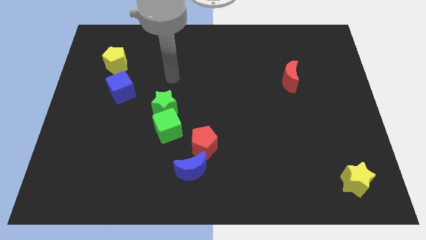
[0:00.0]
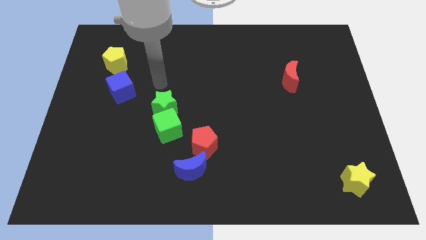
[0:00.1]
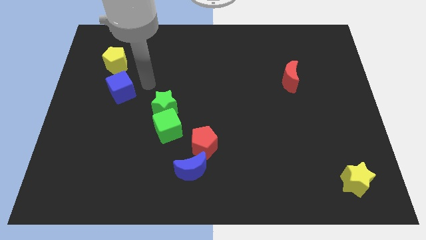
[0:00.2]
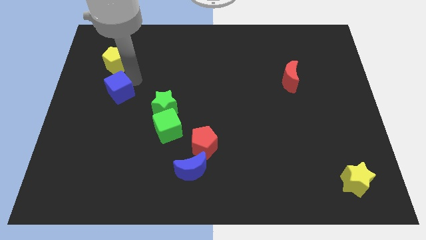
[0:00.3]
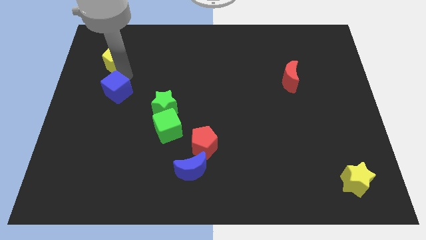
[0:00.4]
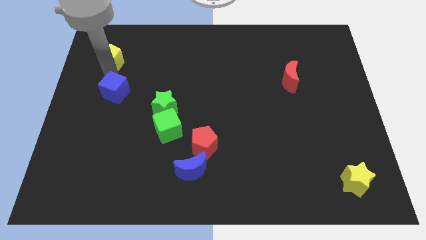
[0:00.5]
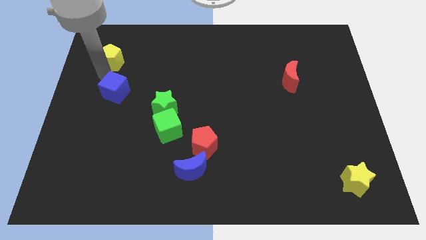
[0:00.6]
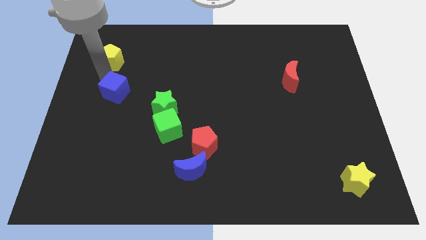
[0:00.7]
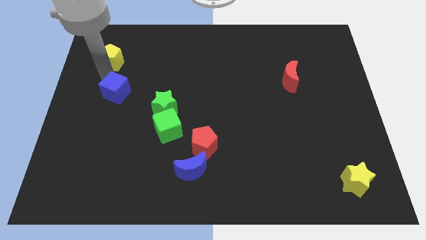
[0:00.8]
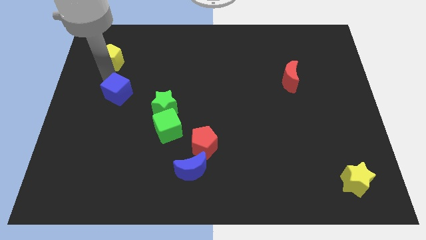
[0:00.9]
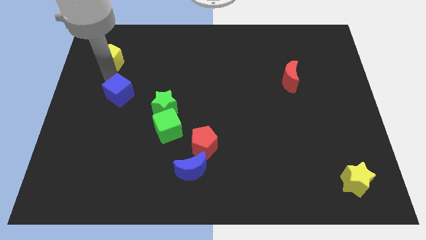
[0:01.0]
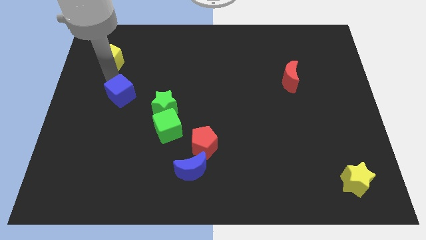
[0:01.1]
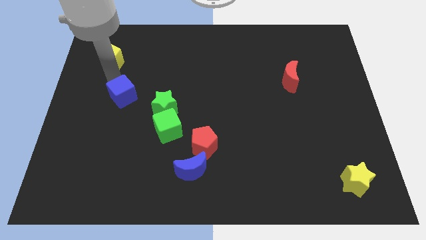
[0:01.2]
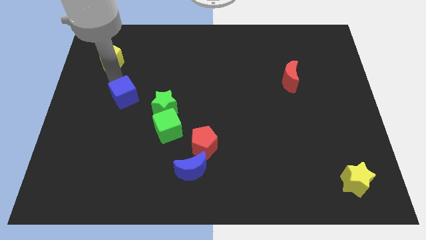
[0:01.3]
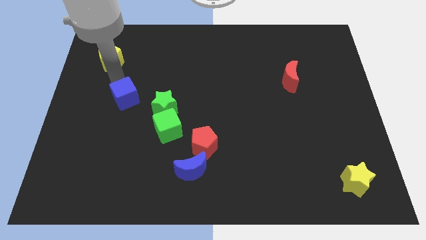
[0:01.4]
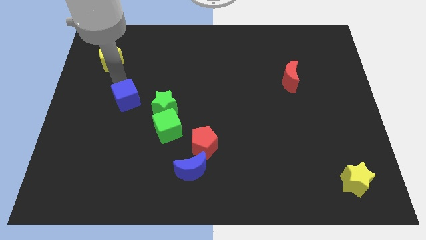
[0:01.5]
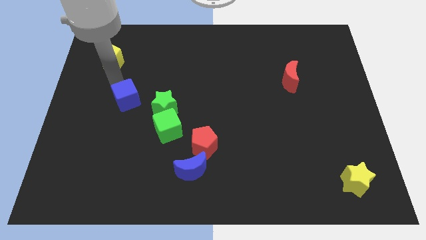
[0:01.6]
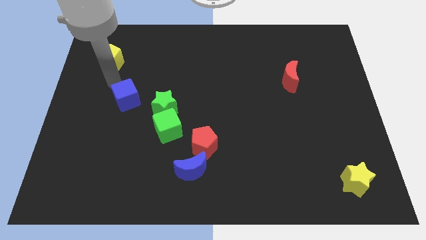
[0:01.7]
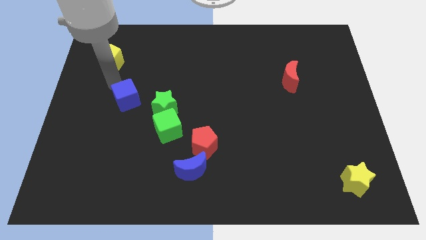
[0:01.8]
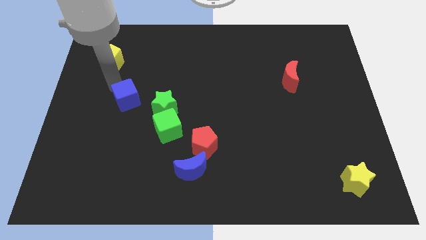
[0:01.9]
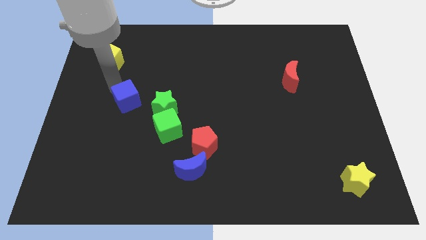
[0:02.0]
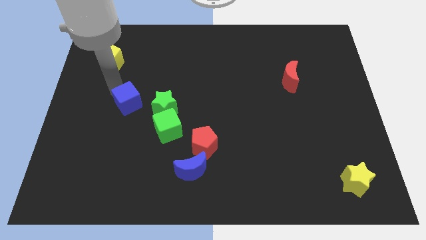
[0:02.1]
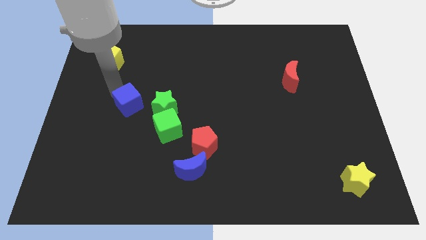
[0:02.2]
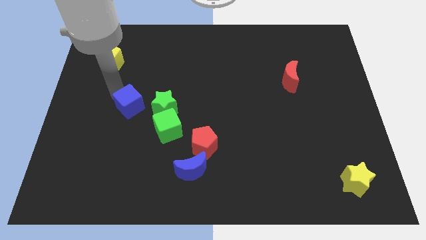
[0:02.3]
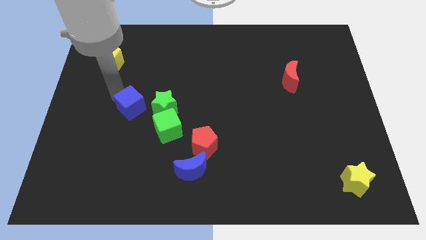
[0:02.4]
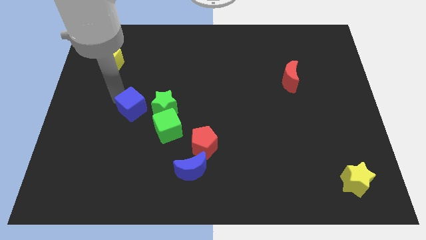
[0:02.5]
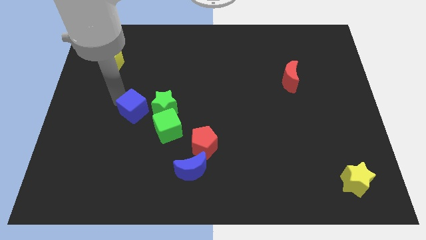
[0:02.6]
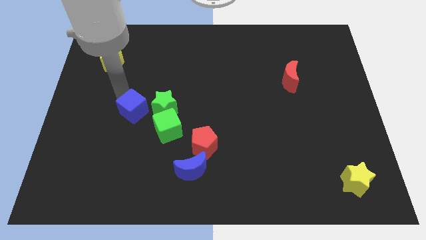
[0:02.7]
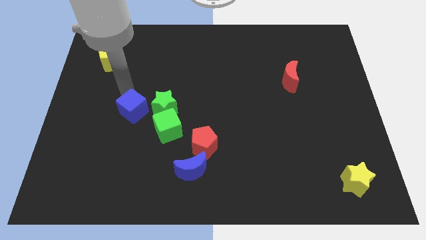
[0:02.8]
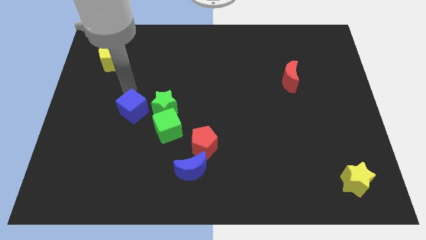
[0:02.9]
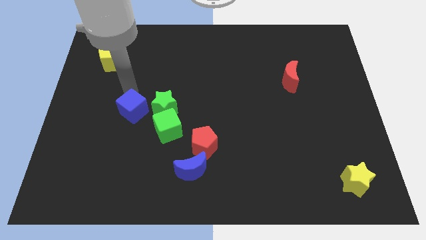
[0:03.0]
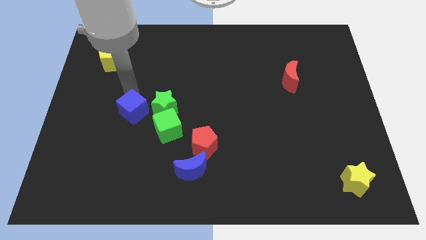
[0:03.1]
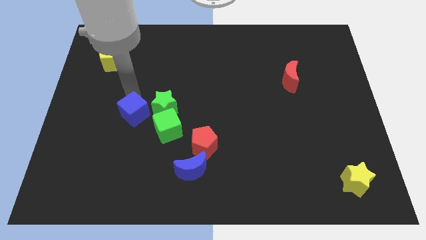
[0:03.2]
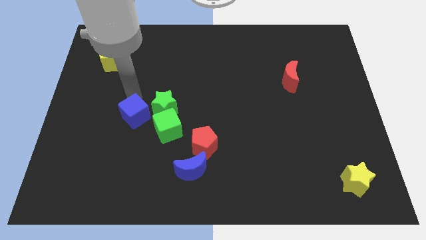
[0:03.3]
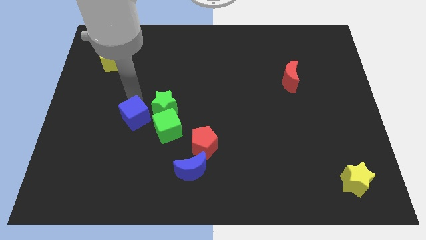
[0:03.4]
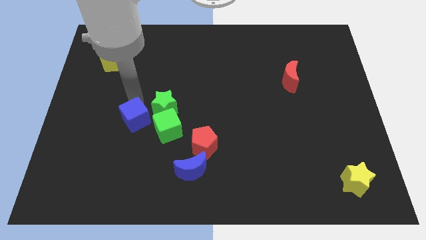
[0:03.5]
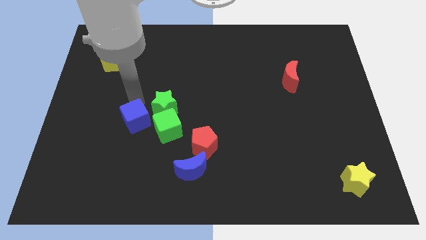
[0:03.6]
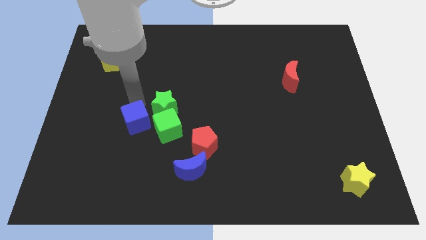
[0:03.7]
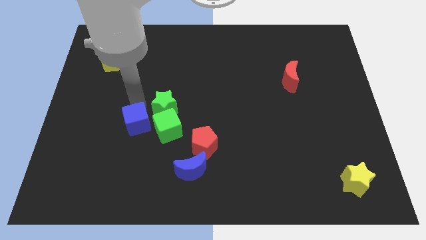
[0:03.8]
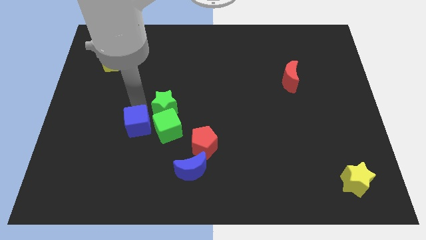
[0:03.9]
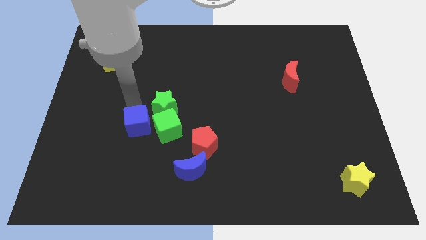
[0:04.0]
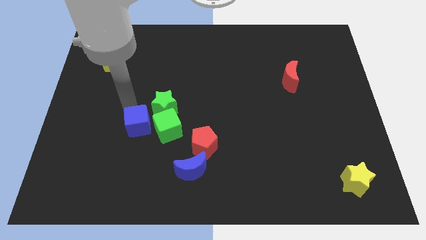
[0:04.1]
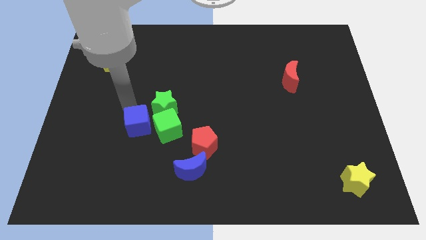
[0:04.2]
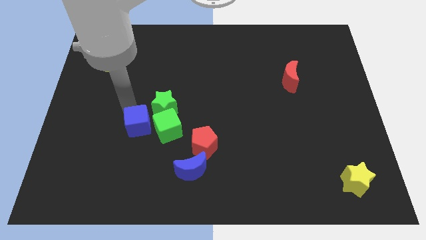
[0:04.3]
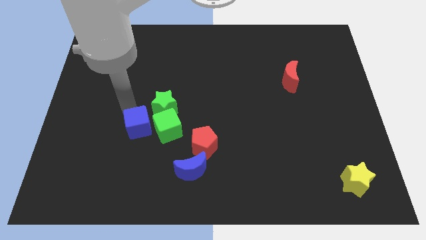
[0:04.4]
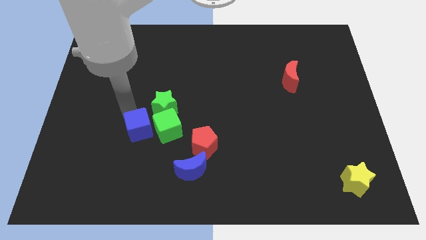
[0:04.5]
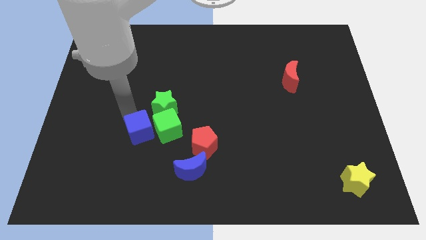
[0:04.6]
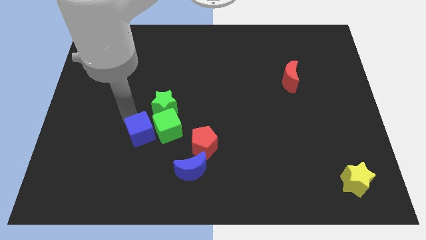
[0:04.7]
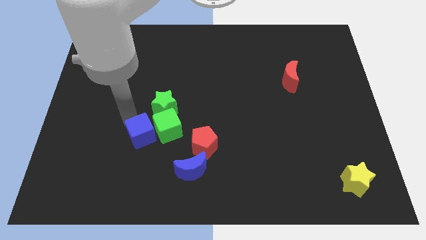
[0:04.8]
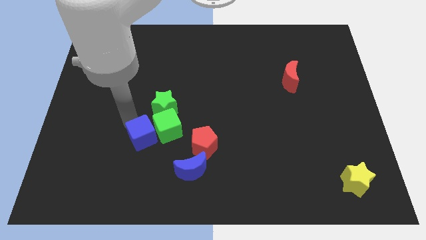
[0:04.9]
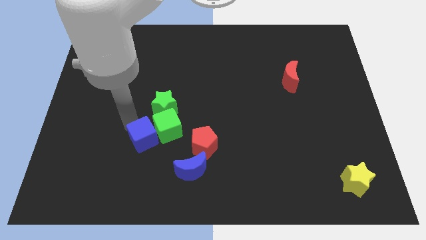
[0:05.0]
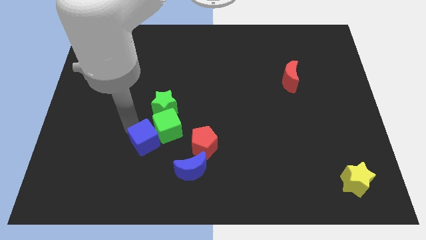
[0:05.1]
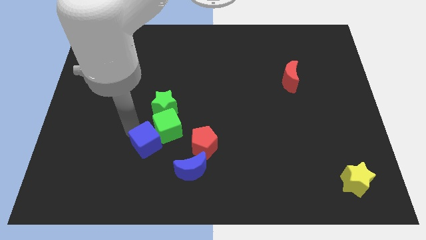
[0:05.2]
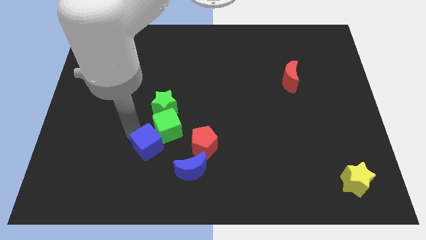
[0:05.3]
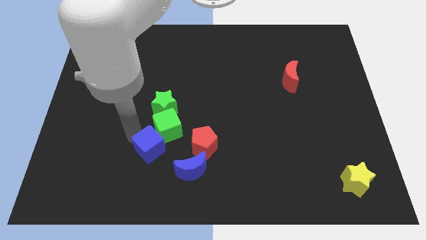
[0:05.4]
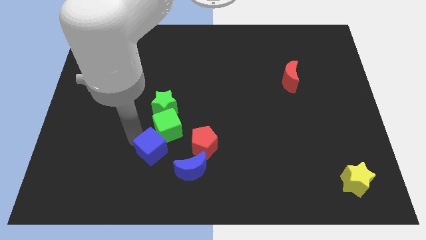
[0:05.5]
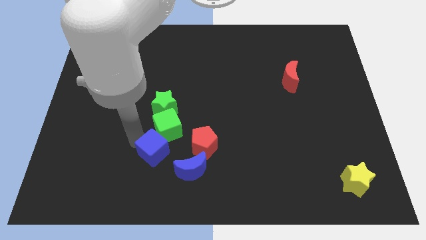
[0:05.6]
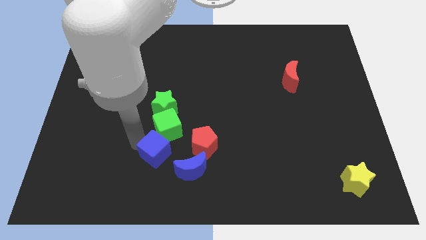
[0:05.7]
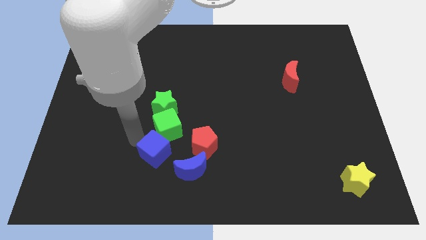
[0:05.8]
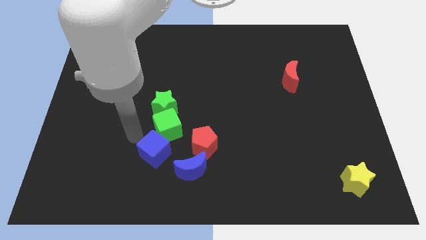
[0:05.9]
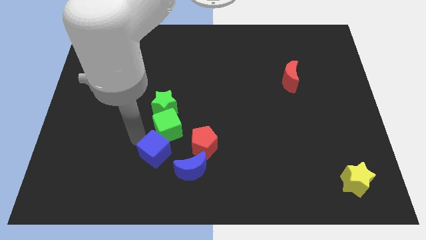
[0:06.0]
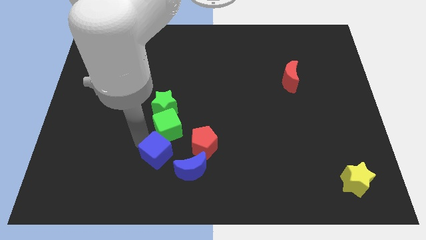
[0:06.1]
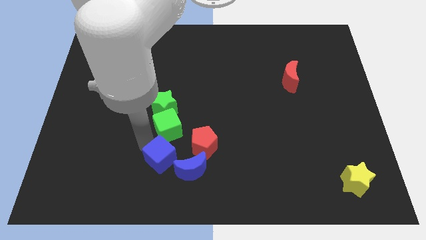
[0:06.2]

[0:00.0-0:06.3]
move the blue cube downwards and then right

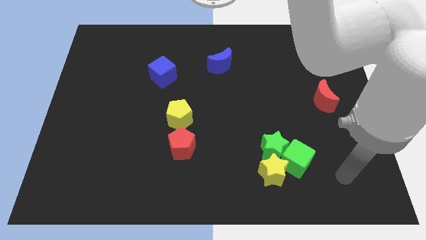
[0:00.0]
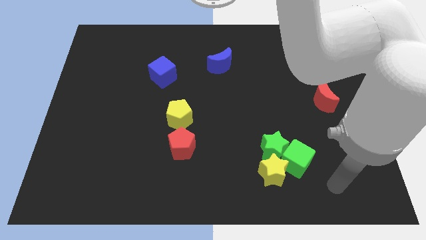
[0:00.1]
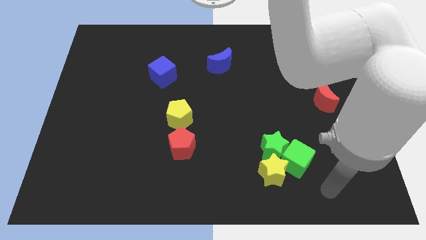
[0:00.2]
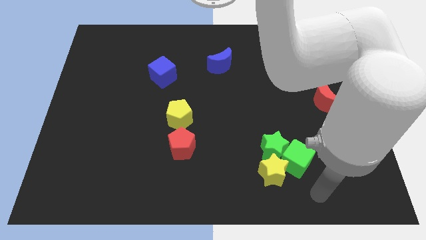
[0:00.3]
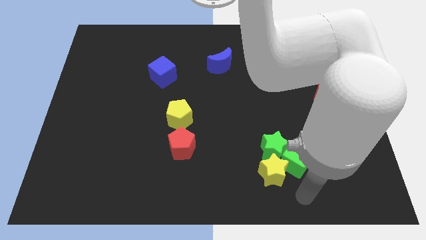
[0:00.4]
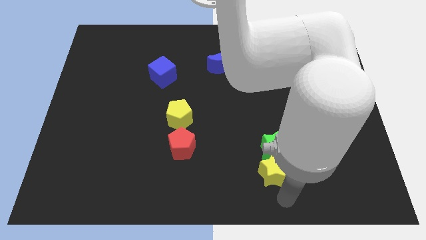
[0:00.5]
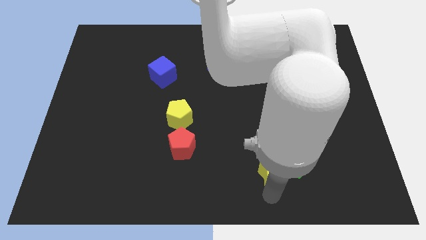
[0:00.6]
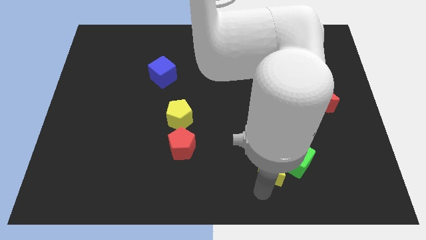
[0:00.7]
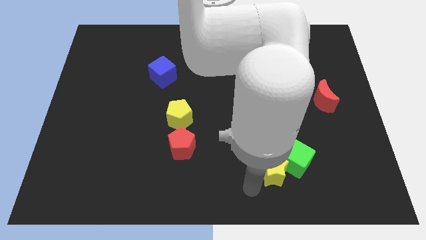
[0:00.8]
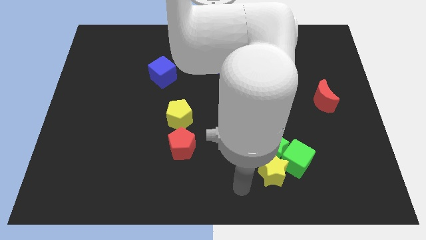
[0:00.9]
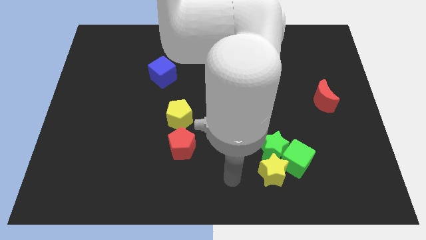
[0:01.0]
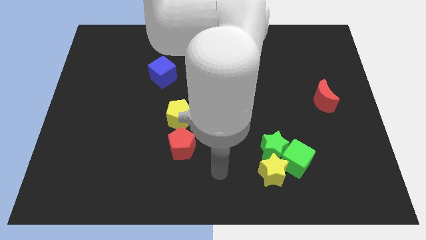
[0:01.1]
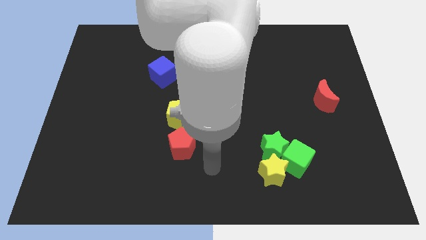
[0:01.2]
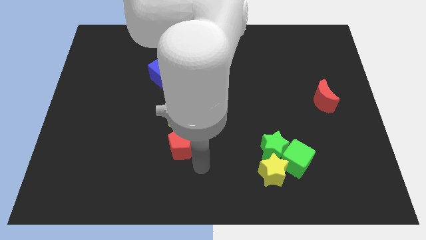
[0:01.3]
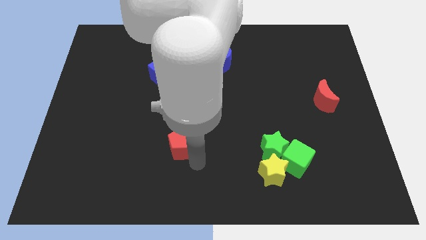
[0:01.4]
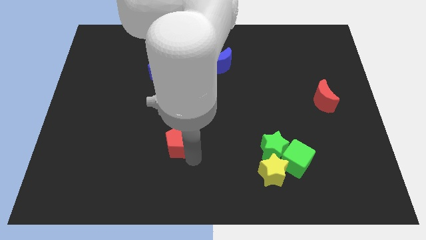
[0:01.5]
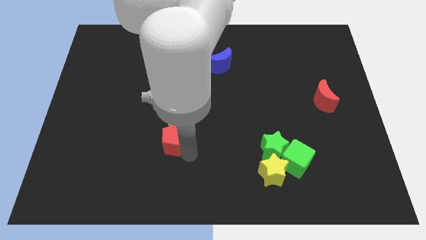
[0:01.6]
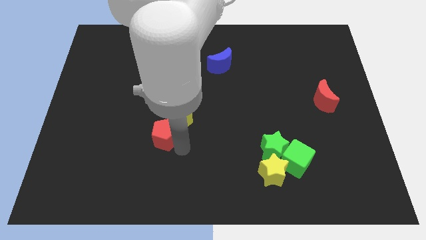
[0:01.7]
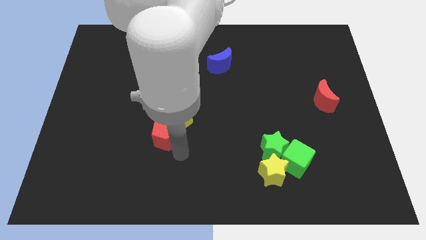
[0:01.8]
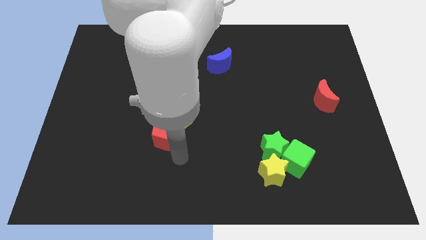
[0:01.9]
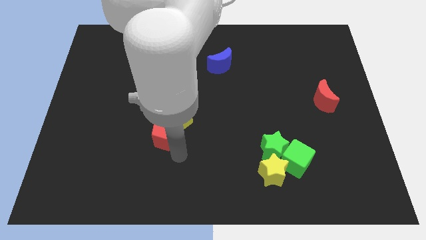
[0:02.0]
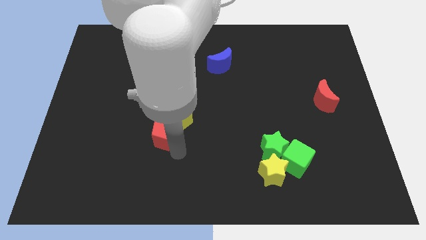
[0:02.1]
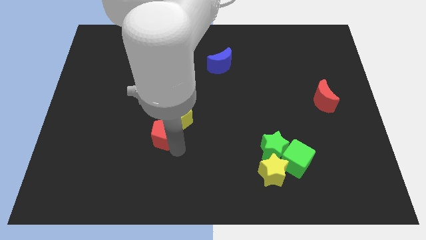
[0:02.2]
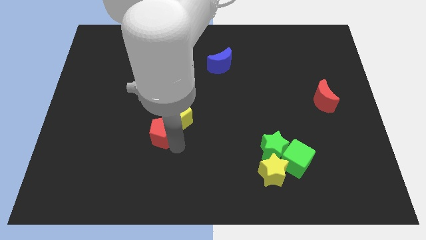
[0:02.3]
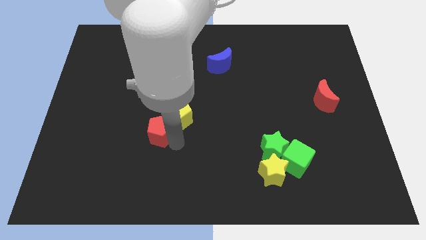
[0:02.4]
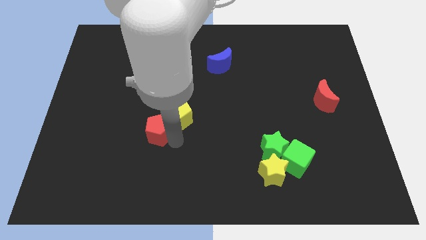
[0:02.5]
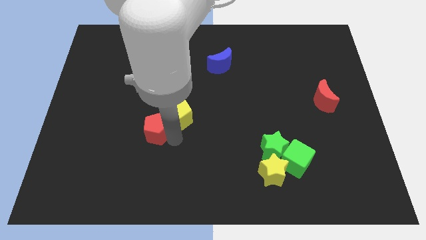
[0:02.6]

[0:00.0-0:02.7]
slightly slide the red pentagon diagonally up and left
